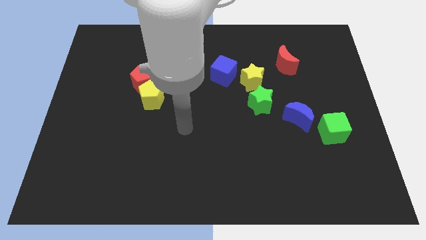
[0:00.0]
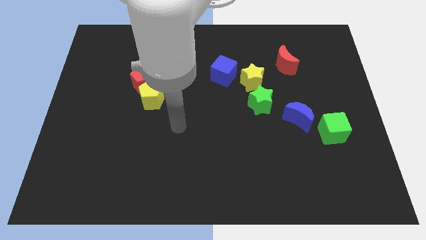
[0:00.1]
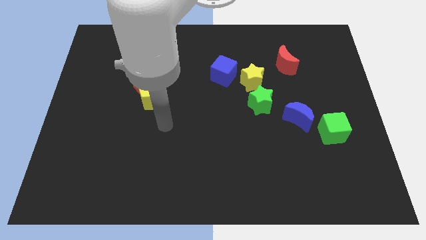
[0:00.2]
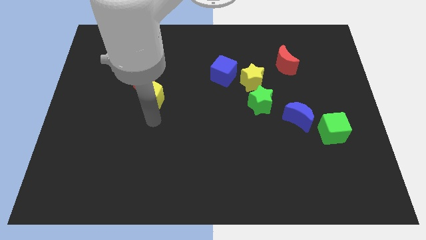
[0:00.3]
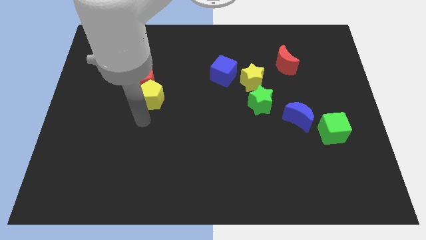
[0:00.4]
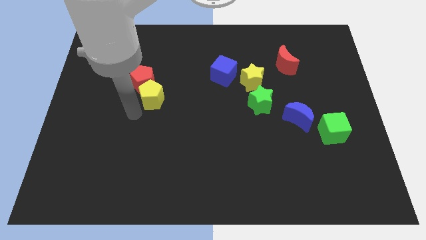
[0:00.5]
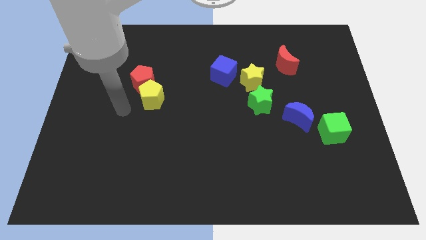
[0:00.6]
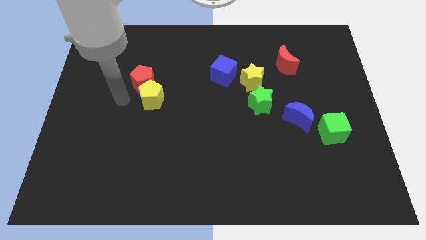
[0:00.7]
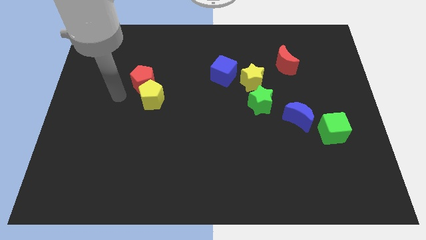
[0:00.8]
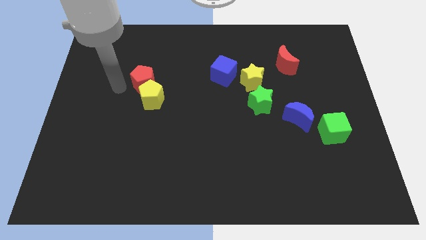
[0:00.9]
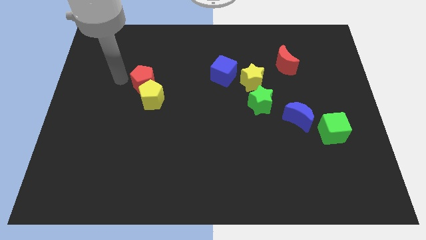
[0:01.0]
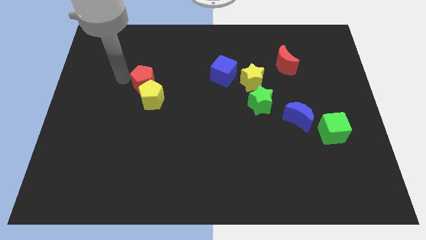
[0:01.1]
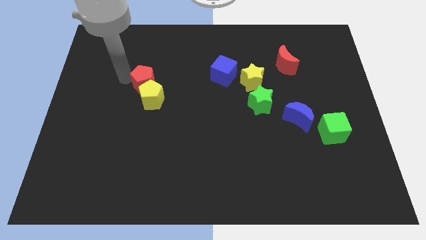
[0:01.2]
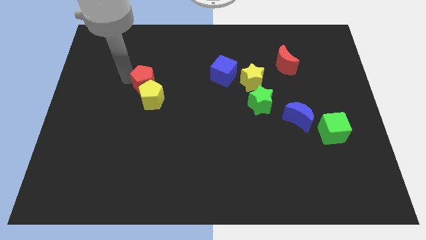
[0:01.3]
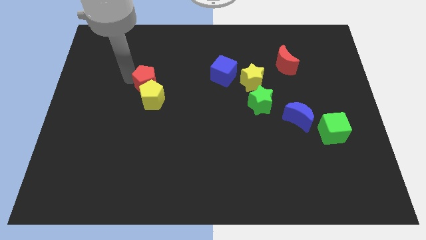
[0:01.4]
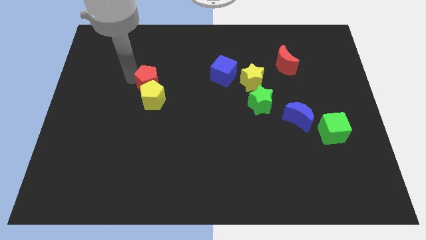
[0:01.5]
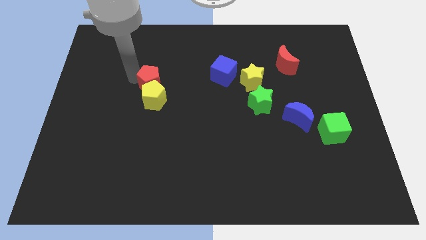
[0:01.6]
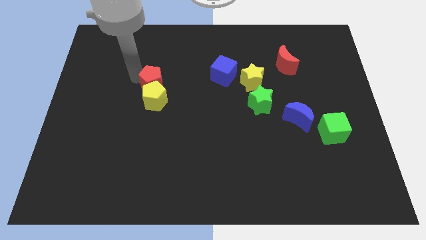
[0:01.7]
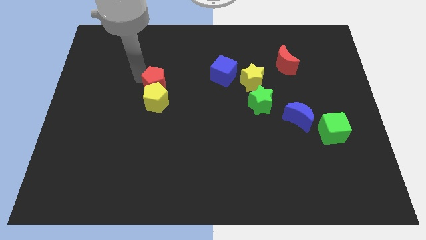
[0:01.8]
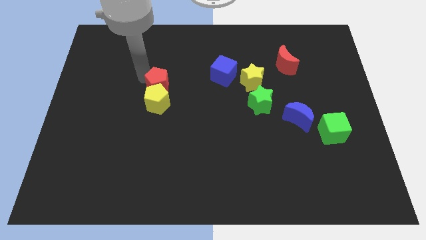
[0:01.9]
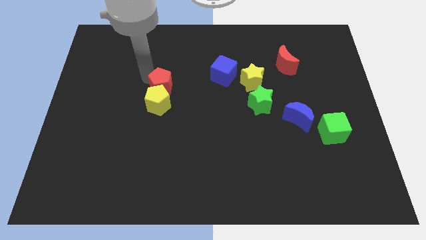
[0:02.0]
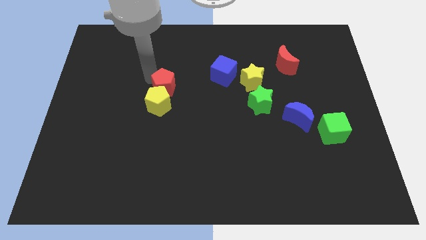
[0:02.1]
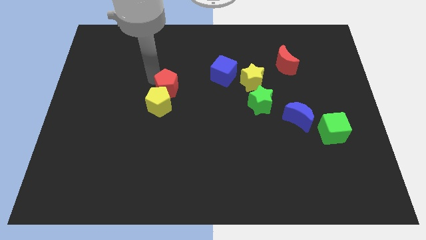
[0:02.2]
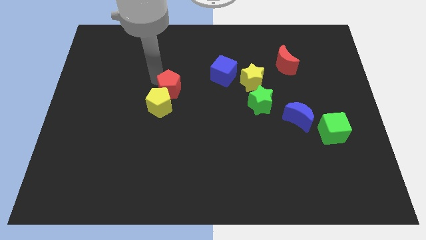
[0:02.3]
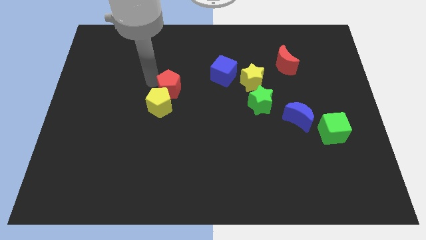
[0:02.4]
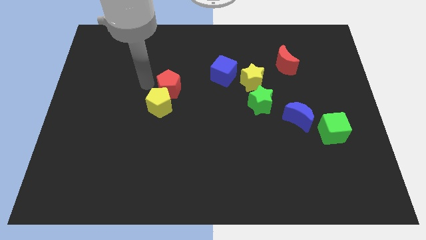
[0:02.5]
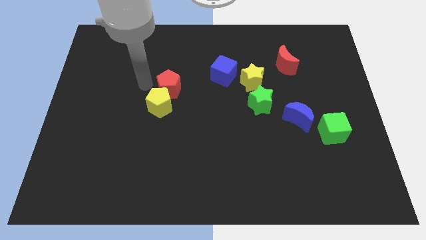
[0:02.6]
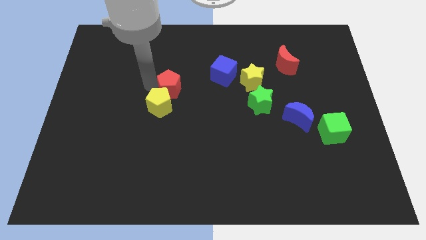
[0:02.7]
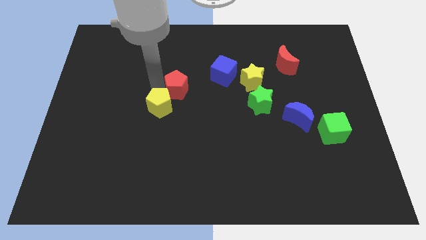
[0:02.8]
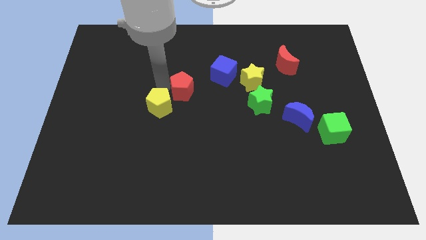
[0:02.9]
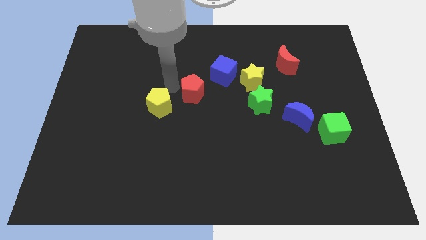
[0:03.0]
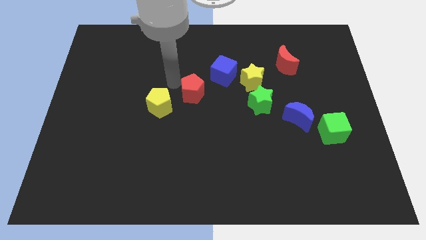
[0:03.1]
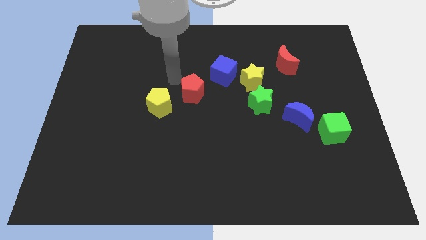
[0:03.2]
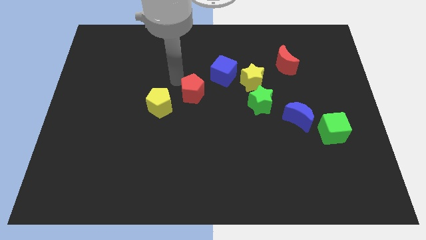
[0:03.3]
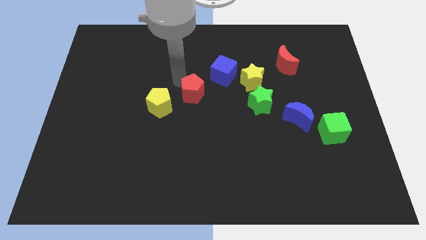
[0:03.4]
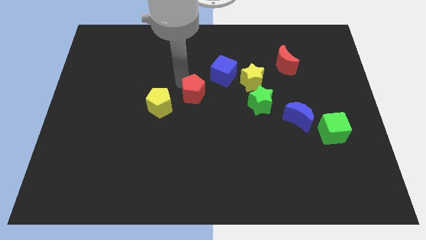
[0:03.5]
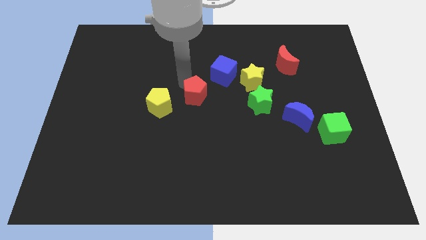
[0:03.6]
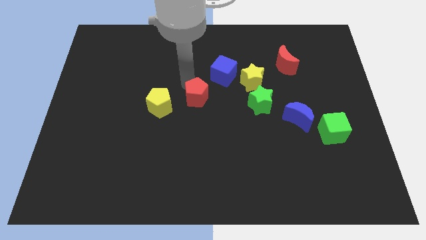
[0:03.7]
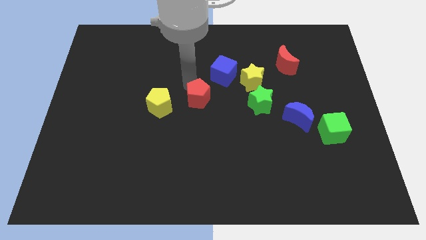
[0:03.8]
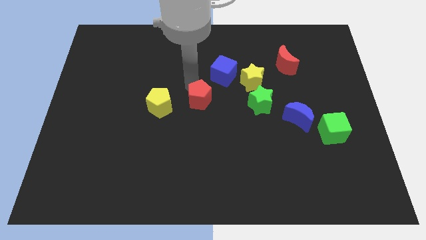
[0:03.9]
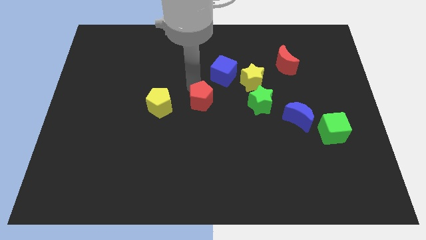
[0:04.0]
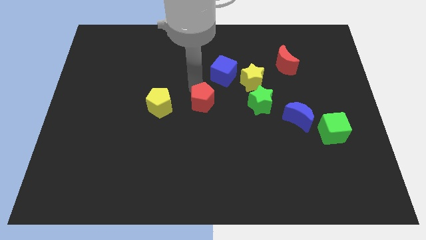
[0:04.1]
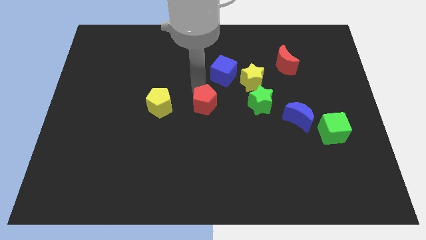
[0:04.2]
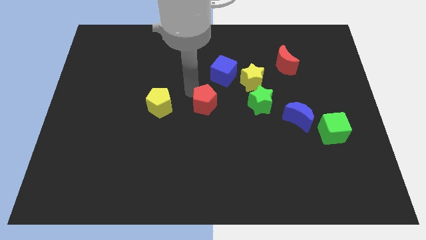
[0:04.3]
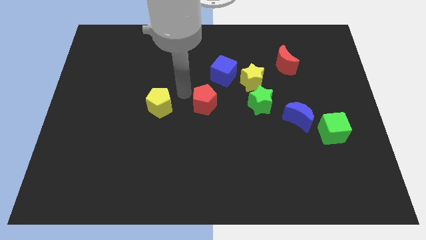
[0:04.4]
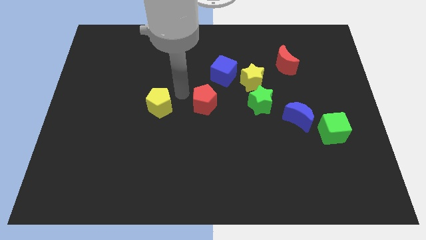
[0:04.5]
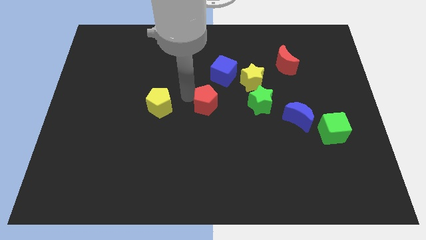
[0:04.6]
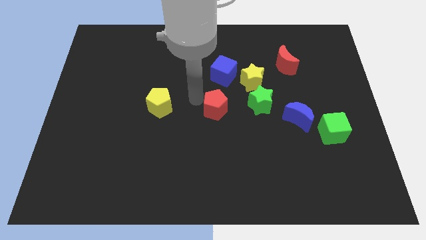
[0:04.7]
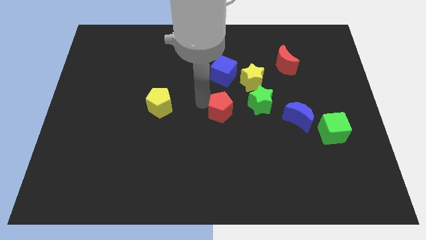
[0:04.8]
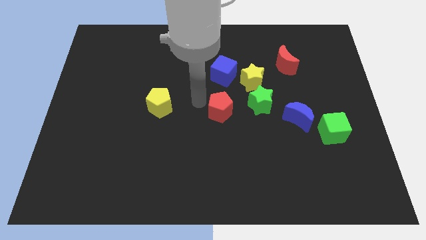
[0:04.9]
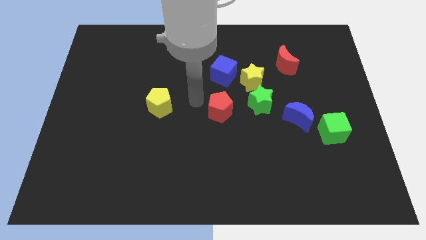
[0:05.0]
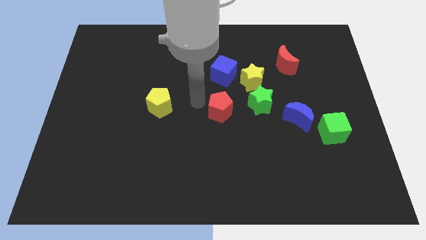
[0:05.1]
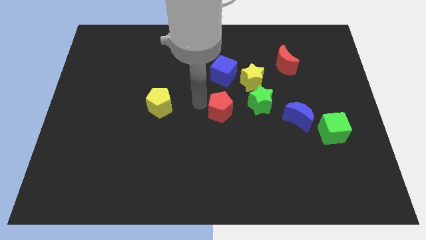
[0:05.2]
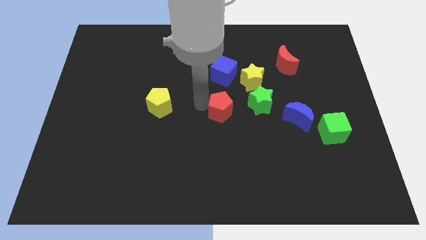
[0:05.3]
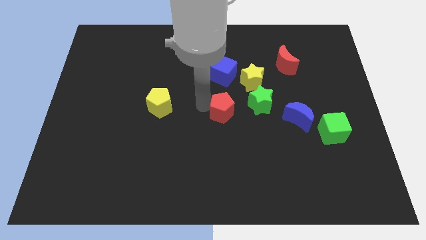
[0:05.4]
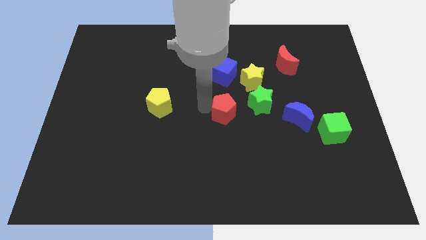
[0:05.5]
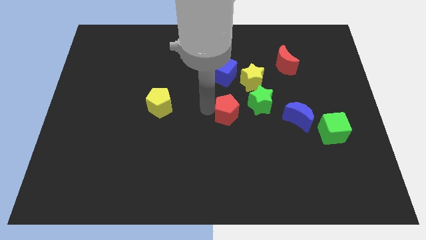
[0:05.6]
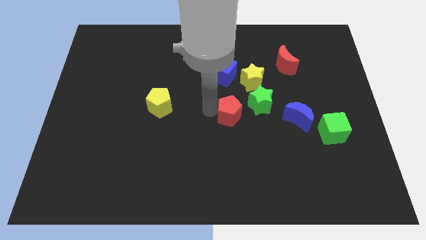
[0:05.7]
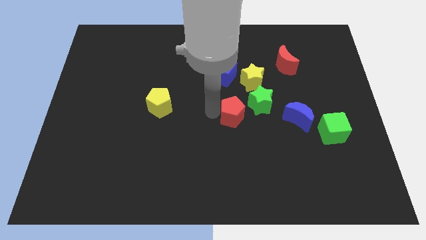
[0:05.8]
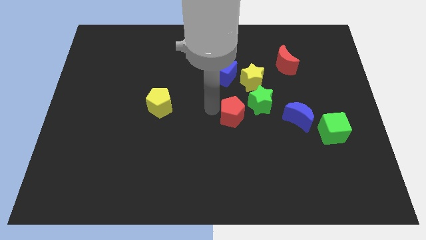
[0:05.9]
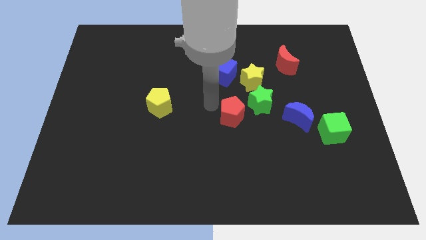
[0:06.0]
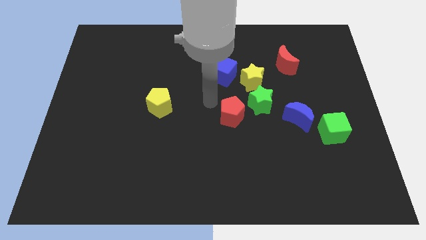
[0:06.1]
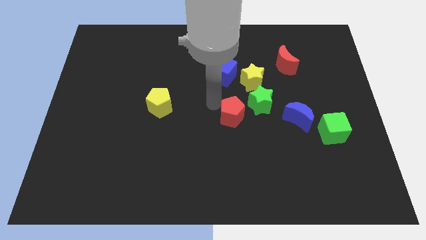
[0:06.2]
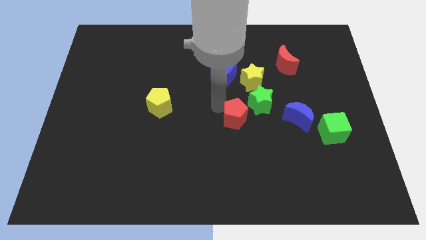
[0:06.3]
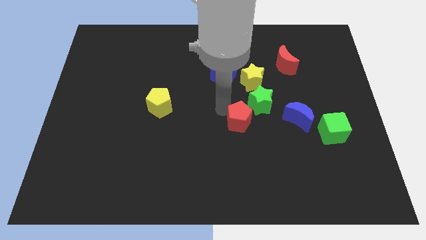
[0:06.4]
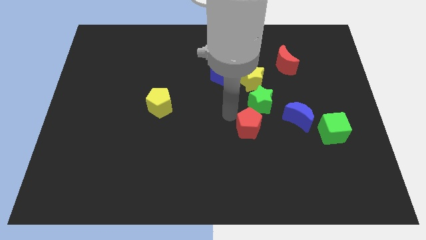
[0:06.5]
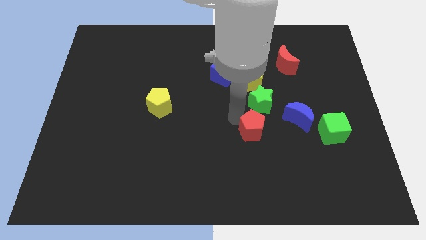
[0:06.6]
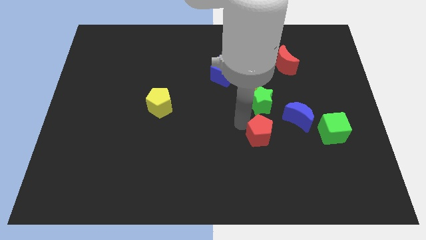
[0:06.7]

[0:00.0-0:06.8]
put the red pentagon to the bottom left side of the blue moon

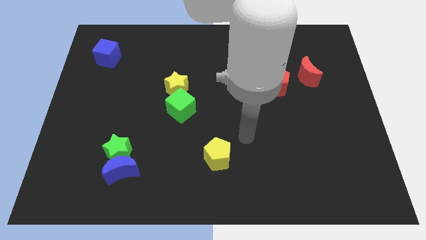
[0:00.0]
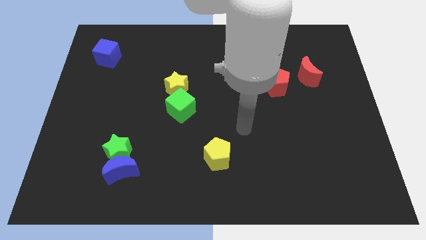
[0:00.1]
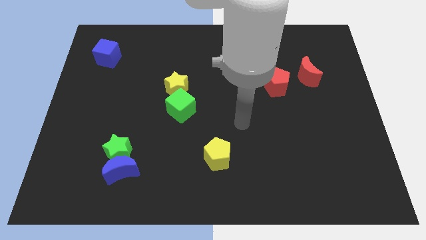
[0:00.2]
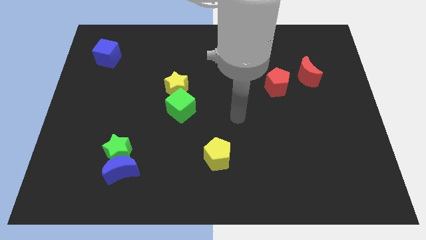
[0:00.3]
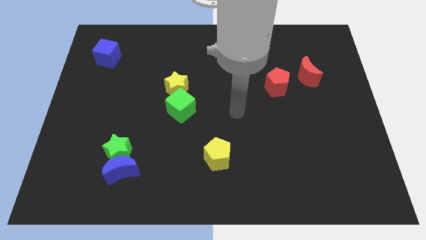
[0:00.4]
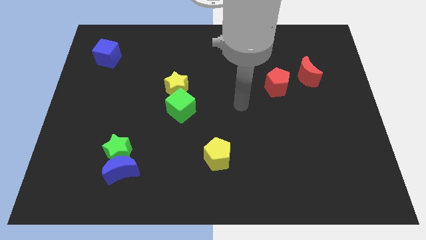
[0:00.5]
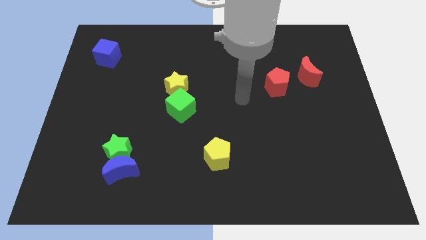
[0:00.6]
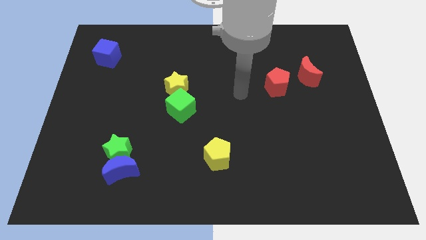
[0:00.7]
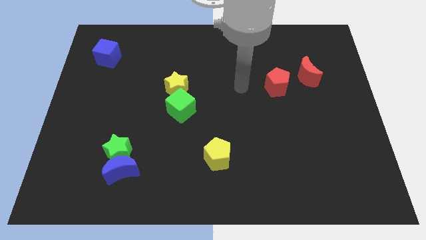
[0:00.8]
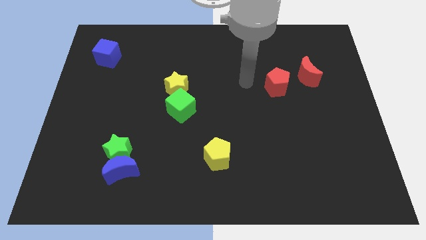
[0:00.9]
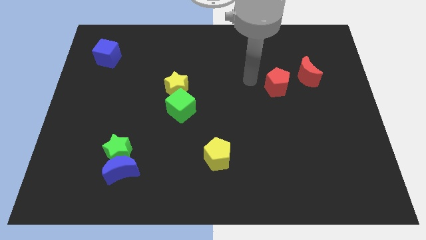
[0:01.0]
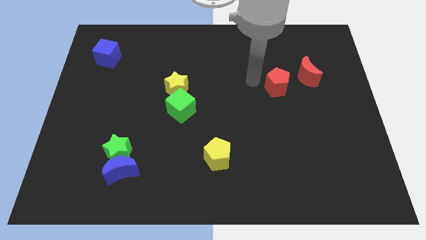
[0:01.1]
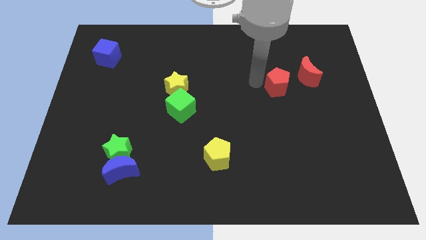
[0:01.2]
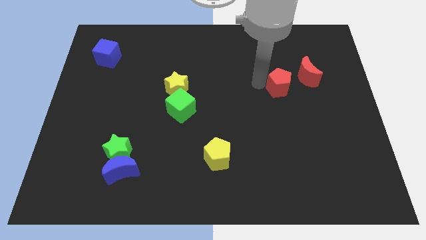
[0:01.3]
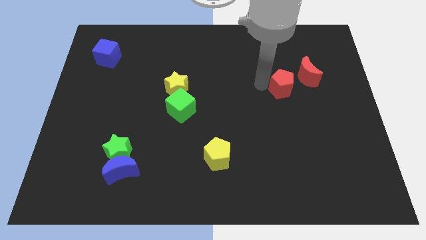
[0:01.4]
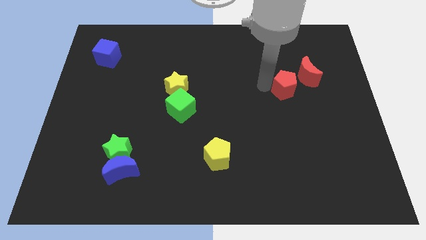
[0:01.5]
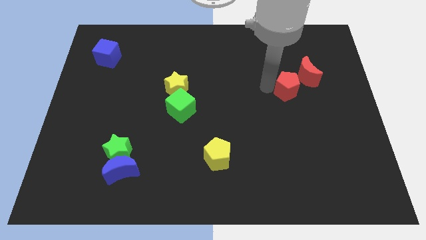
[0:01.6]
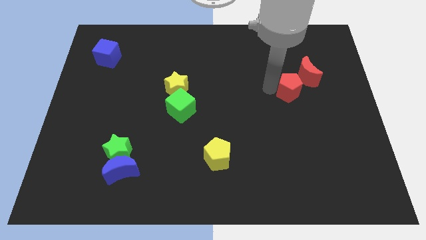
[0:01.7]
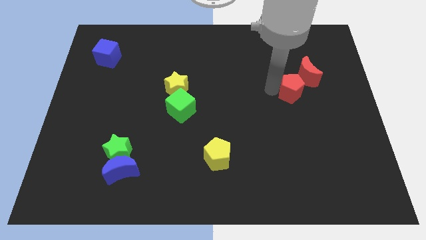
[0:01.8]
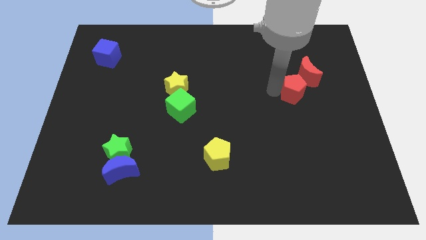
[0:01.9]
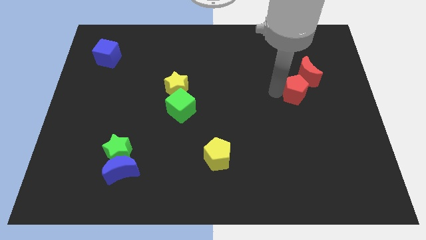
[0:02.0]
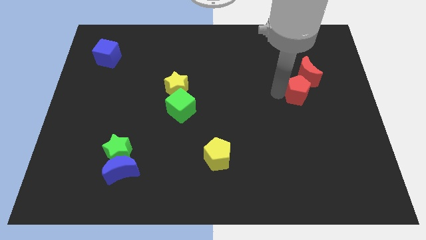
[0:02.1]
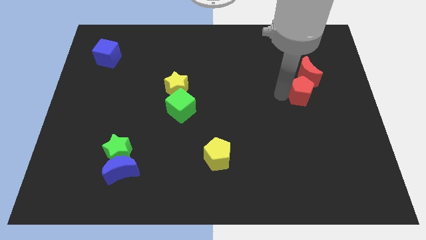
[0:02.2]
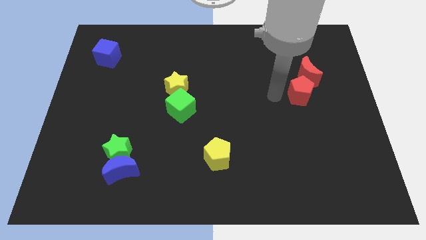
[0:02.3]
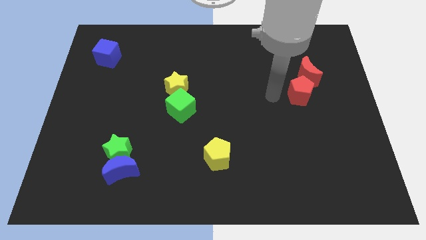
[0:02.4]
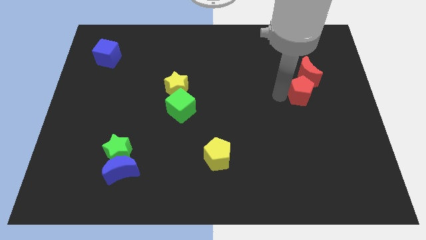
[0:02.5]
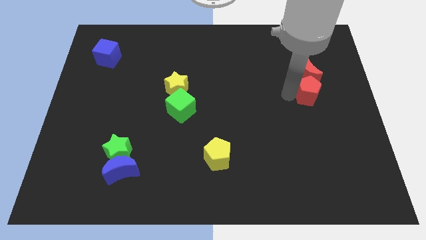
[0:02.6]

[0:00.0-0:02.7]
move the red pentagon diagonally down and to the right of the red moon
